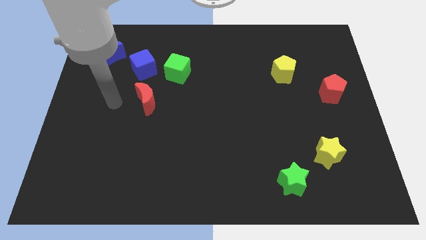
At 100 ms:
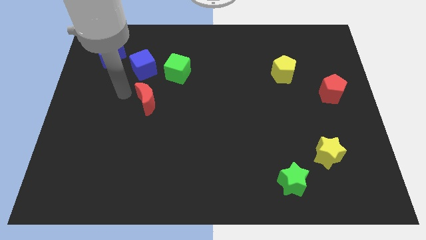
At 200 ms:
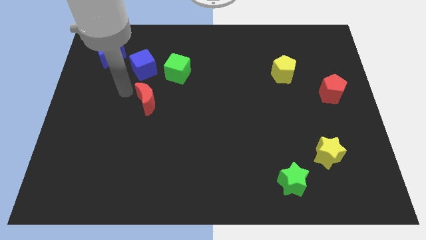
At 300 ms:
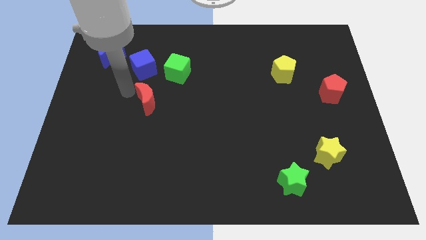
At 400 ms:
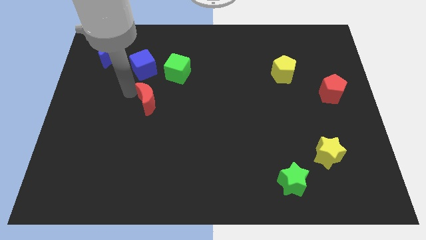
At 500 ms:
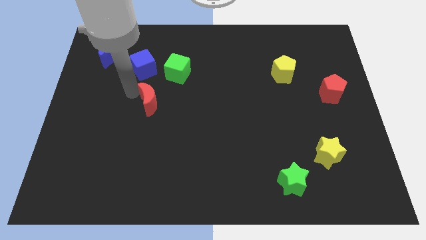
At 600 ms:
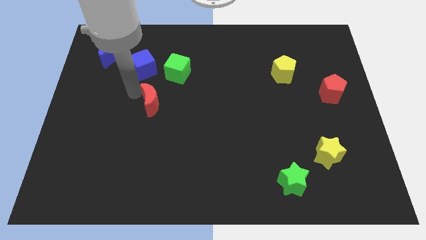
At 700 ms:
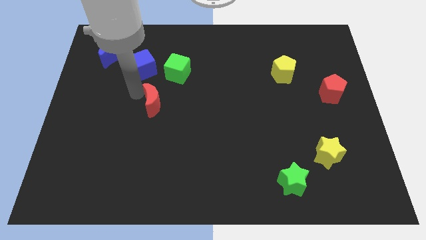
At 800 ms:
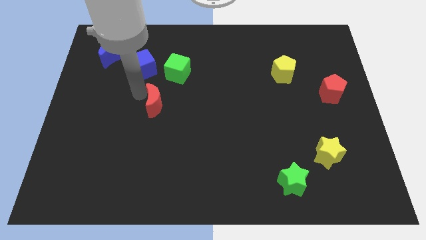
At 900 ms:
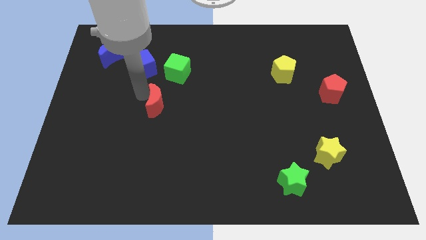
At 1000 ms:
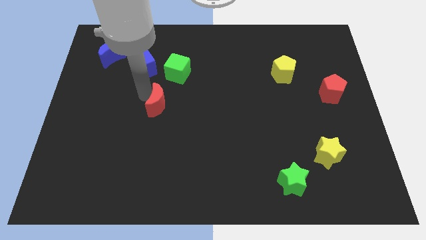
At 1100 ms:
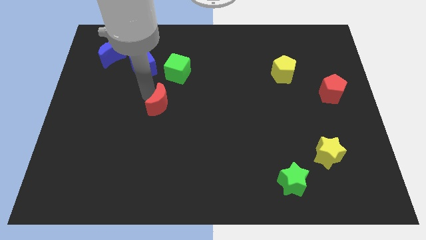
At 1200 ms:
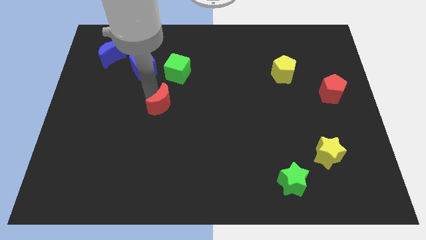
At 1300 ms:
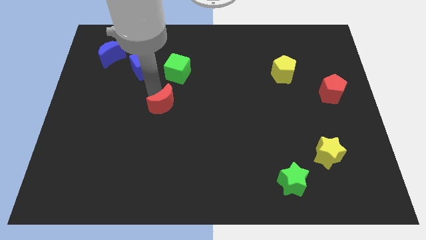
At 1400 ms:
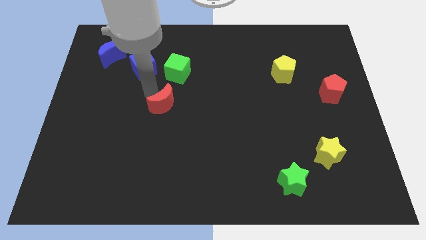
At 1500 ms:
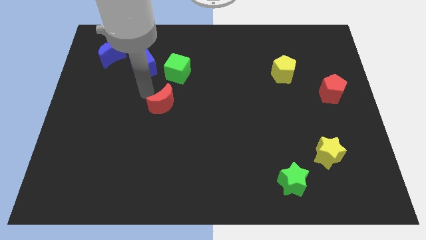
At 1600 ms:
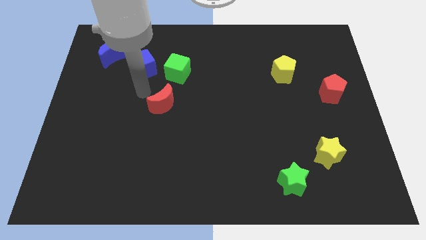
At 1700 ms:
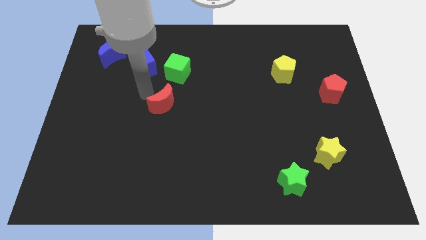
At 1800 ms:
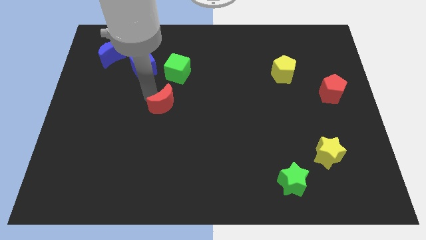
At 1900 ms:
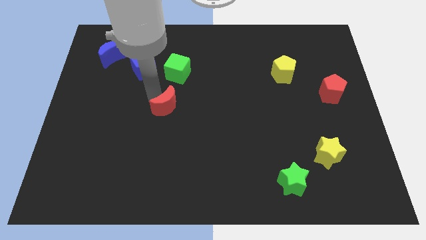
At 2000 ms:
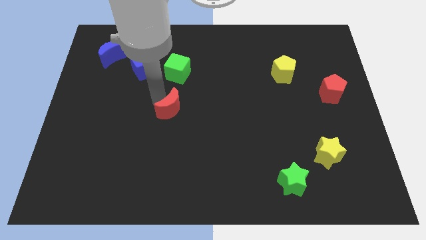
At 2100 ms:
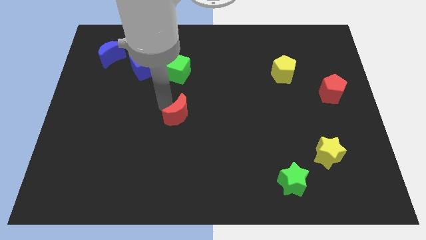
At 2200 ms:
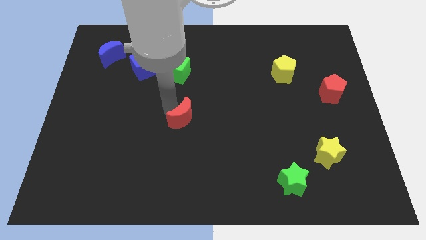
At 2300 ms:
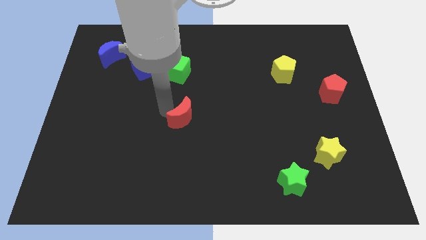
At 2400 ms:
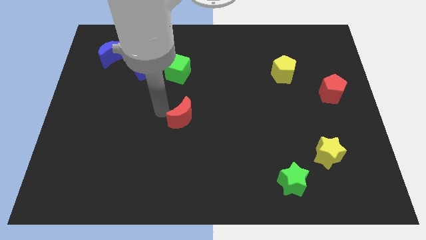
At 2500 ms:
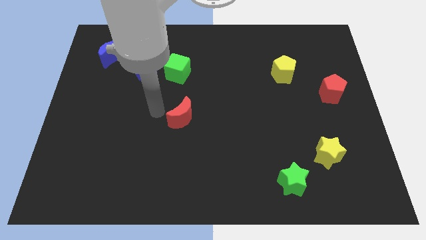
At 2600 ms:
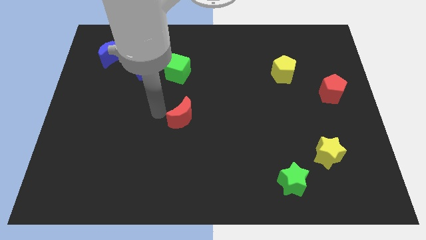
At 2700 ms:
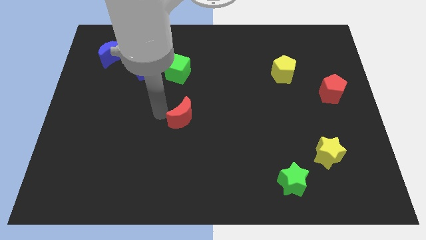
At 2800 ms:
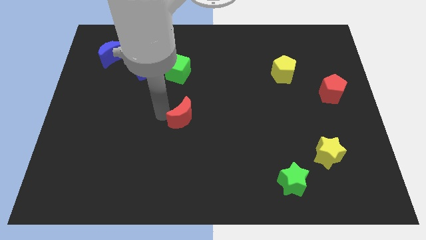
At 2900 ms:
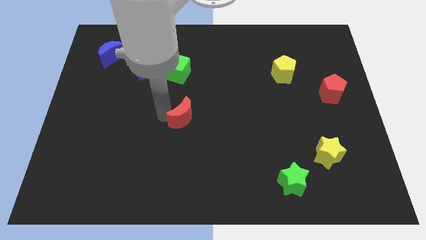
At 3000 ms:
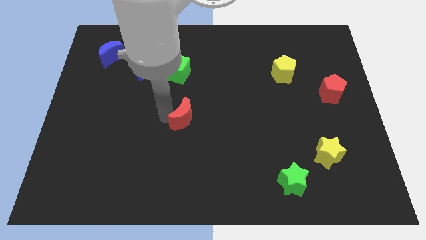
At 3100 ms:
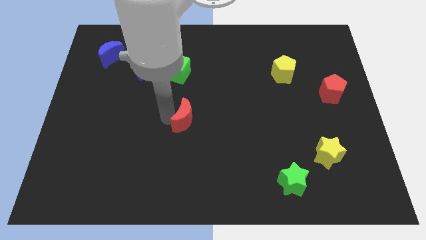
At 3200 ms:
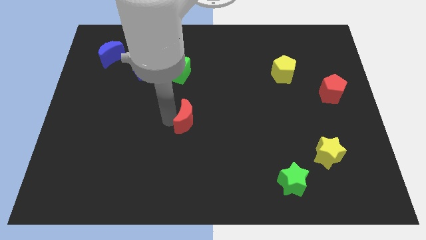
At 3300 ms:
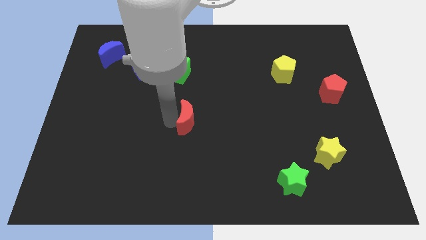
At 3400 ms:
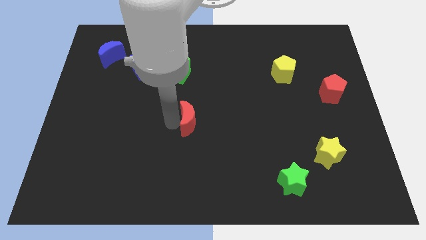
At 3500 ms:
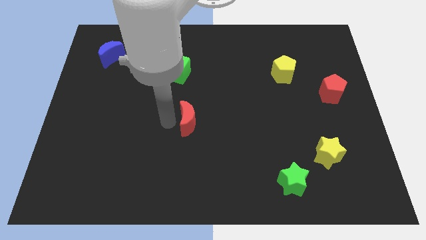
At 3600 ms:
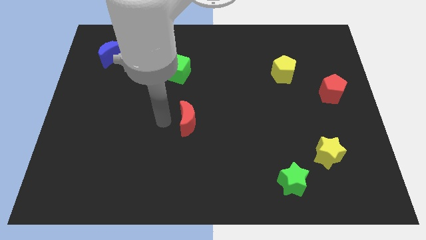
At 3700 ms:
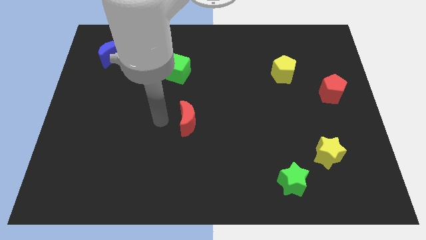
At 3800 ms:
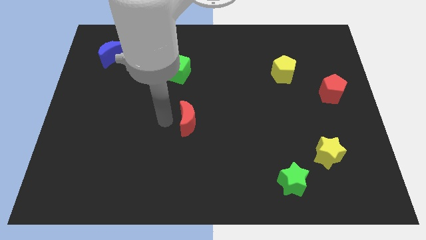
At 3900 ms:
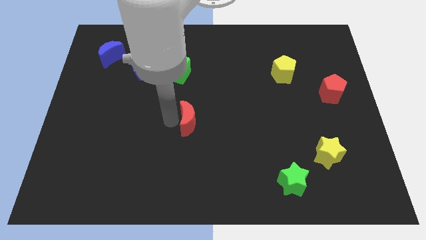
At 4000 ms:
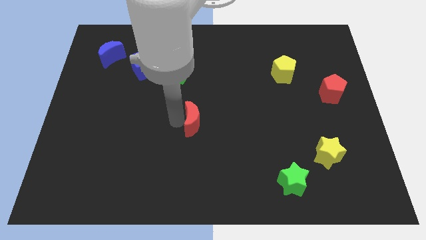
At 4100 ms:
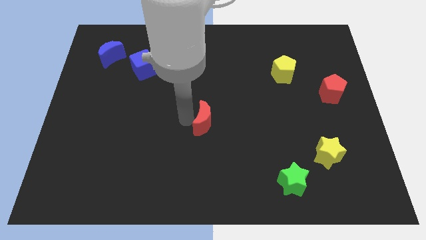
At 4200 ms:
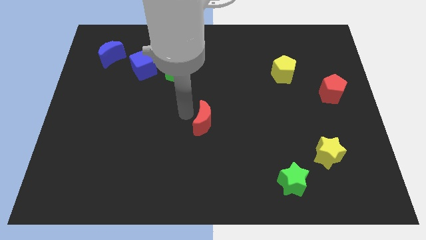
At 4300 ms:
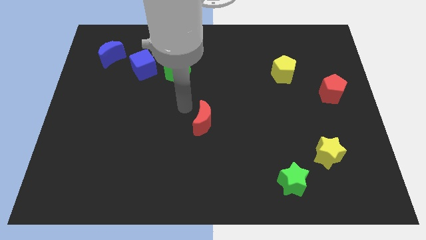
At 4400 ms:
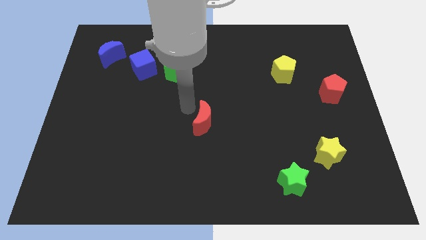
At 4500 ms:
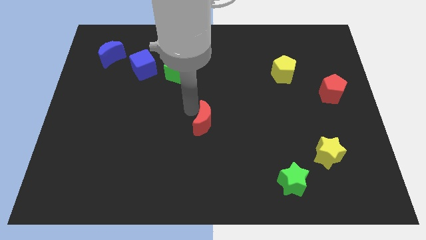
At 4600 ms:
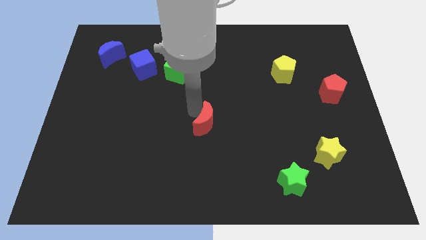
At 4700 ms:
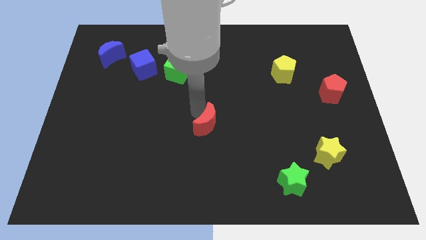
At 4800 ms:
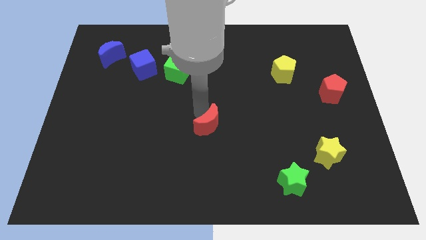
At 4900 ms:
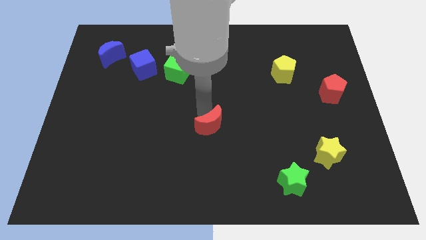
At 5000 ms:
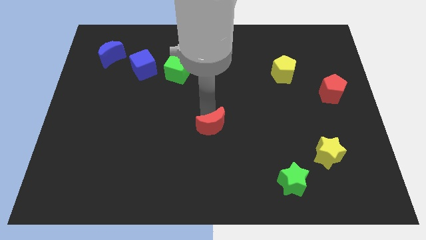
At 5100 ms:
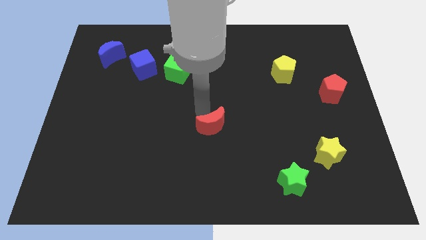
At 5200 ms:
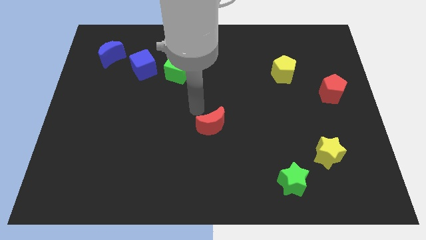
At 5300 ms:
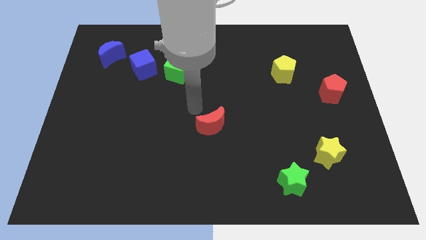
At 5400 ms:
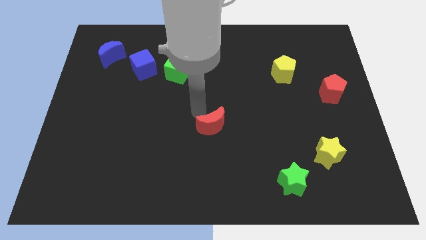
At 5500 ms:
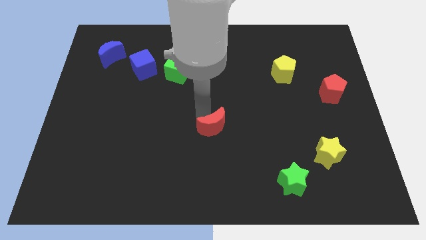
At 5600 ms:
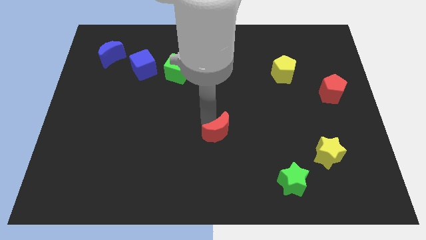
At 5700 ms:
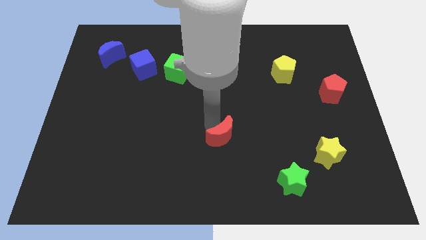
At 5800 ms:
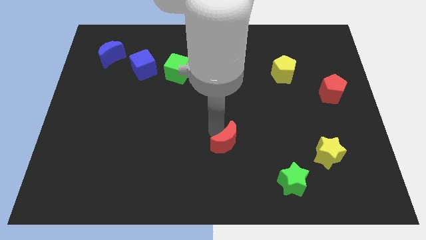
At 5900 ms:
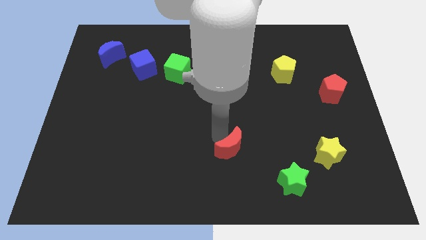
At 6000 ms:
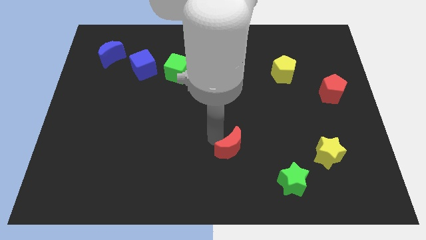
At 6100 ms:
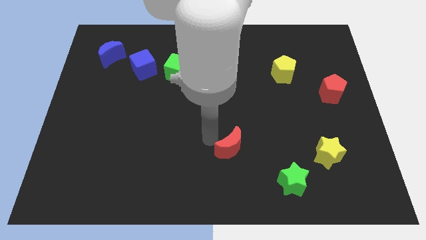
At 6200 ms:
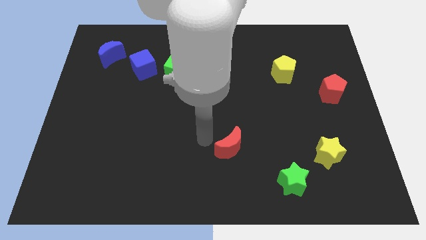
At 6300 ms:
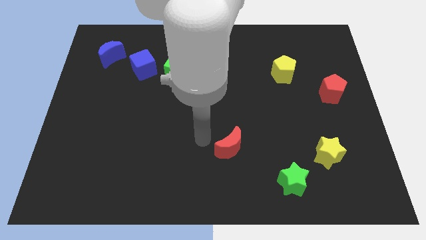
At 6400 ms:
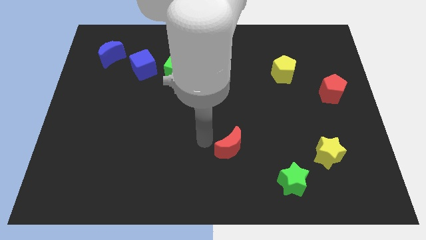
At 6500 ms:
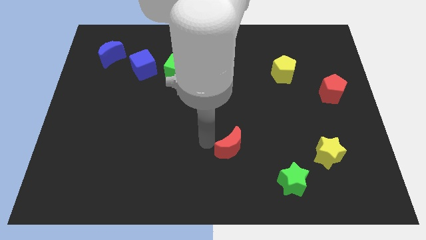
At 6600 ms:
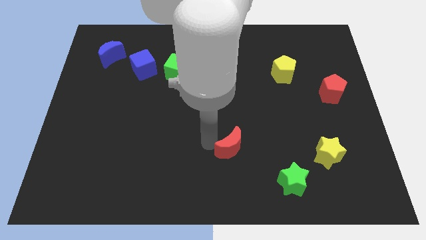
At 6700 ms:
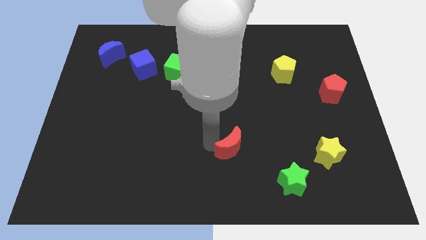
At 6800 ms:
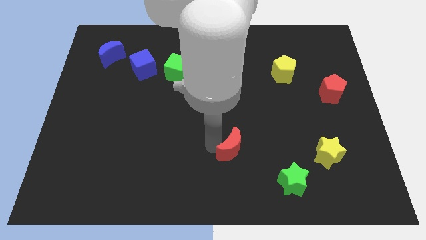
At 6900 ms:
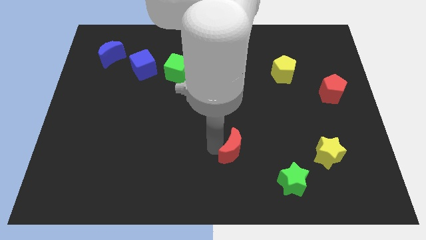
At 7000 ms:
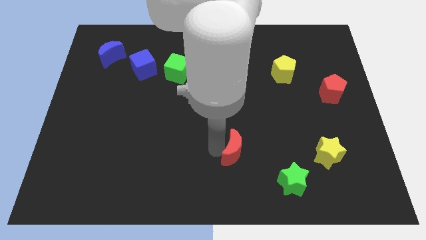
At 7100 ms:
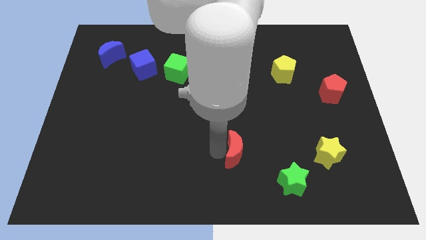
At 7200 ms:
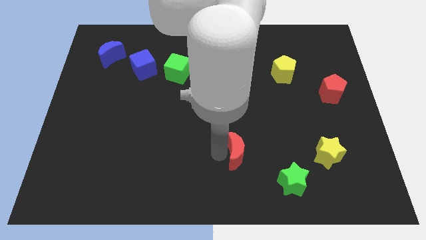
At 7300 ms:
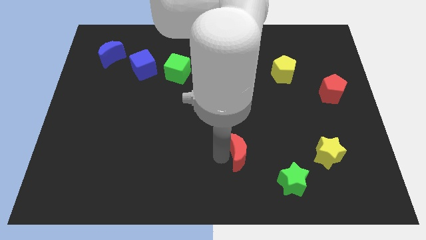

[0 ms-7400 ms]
slide the red moon diagonally up and to the left of the green star
